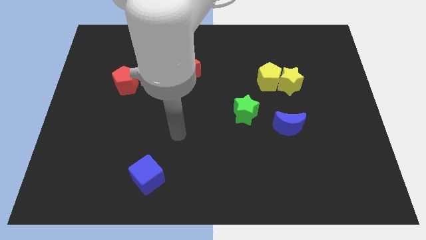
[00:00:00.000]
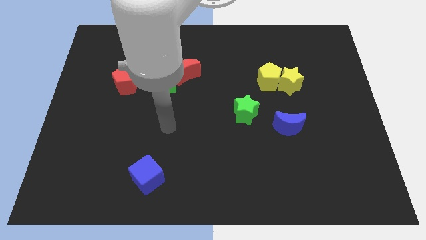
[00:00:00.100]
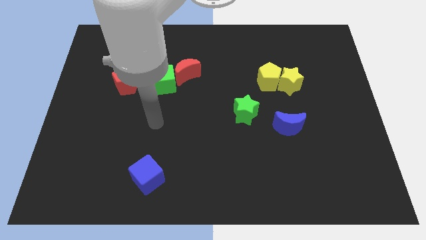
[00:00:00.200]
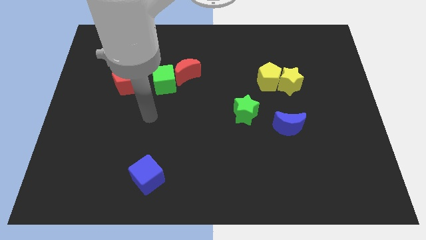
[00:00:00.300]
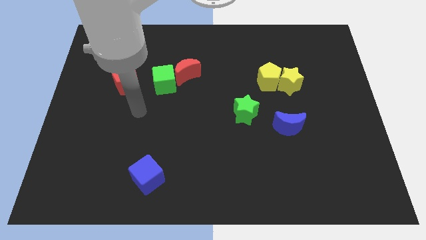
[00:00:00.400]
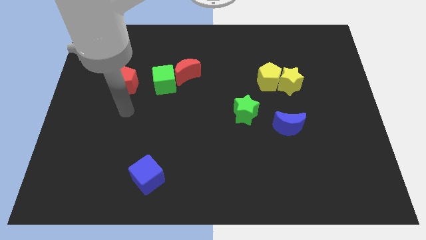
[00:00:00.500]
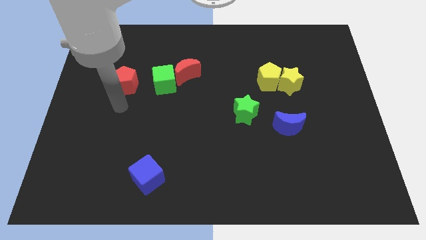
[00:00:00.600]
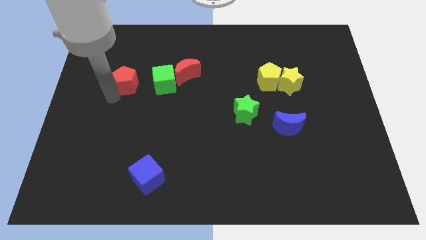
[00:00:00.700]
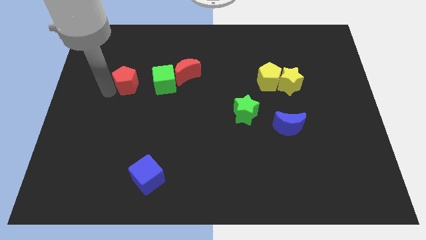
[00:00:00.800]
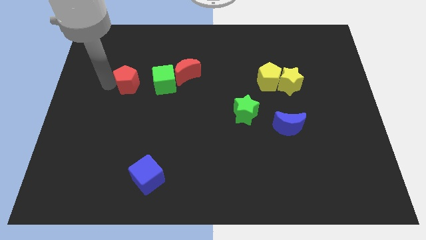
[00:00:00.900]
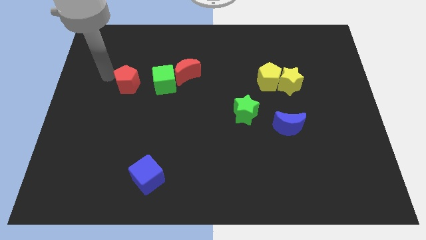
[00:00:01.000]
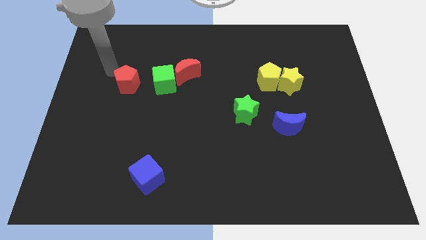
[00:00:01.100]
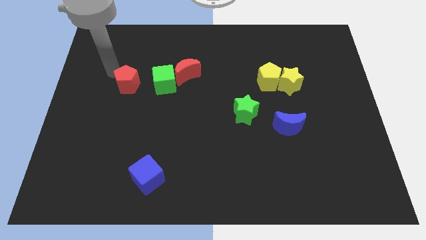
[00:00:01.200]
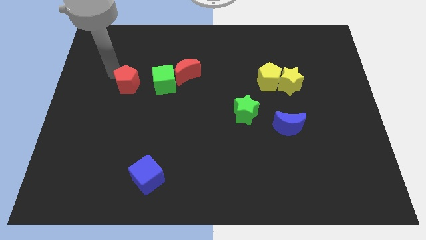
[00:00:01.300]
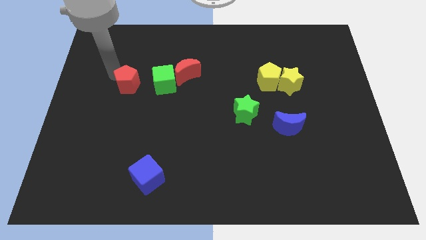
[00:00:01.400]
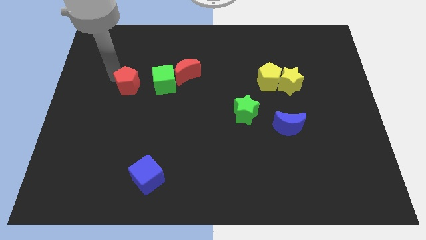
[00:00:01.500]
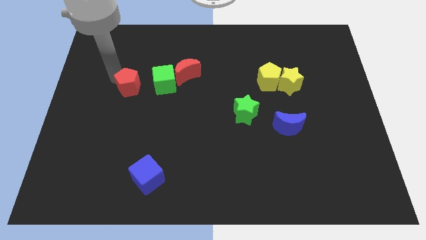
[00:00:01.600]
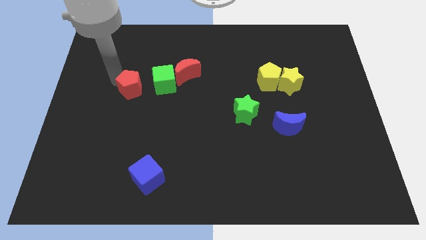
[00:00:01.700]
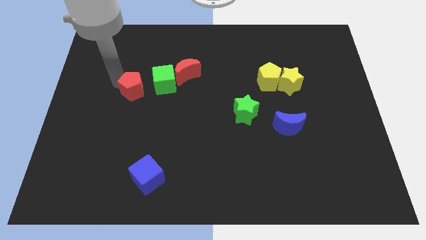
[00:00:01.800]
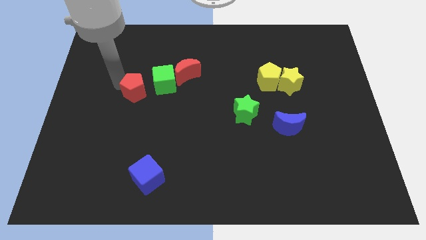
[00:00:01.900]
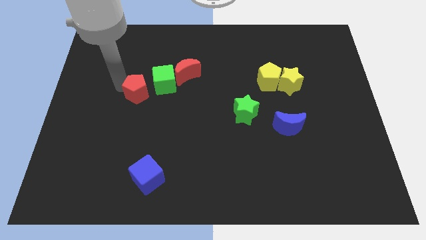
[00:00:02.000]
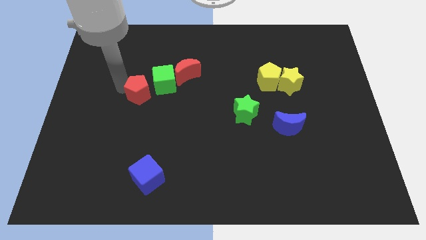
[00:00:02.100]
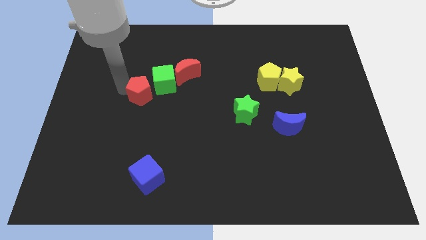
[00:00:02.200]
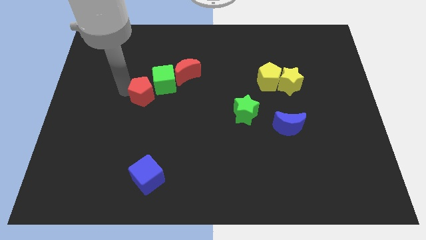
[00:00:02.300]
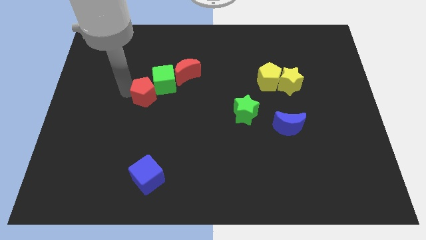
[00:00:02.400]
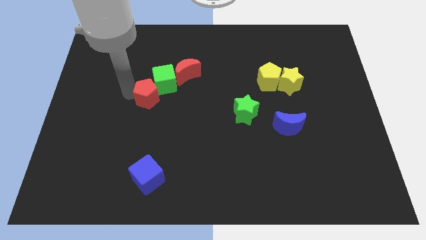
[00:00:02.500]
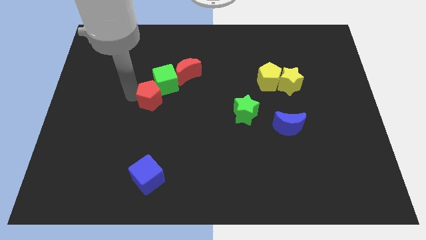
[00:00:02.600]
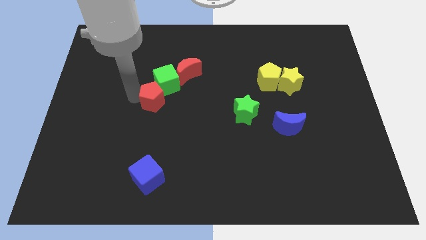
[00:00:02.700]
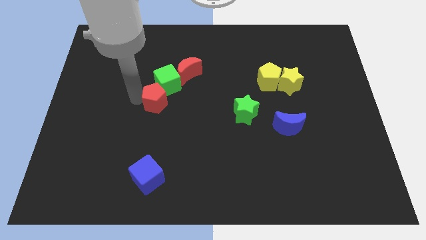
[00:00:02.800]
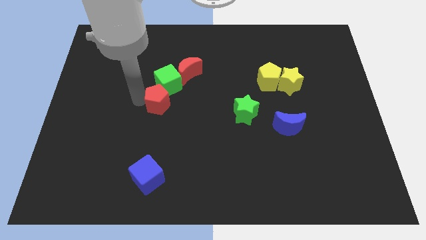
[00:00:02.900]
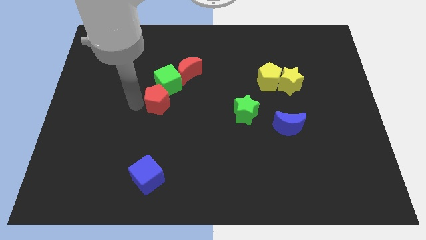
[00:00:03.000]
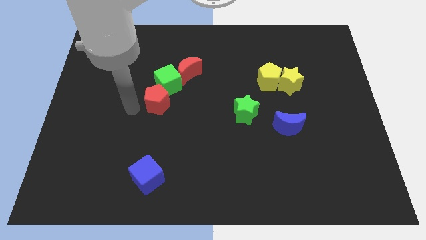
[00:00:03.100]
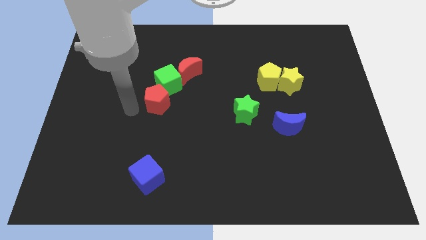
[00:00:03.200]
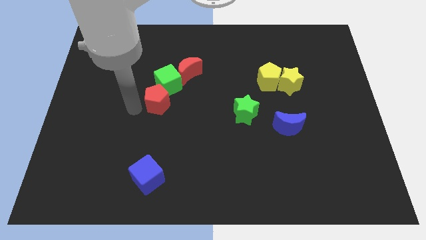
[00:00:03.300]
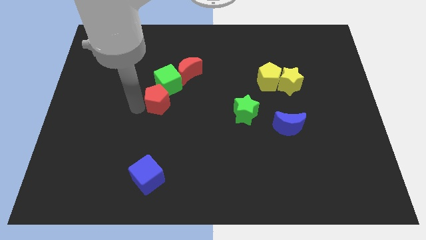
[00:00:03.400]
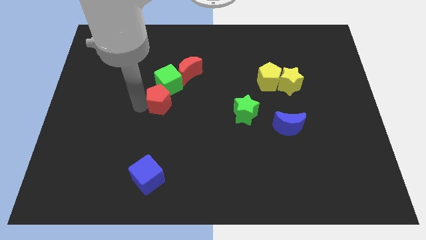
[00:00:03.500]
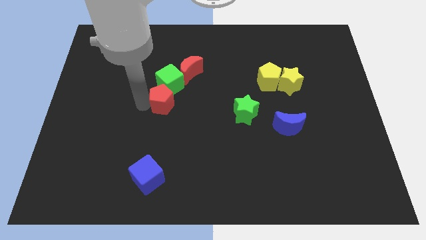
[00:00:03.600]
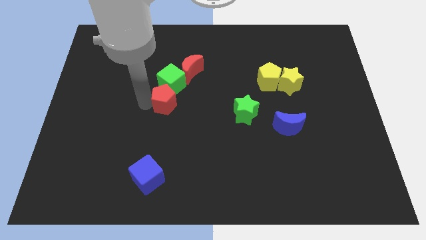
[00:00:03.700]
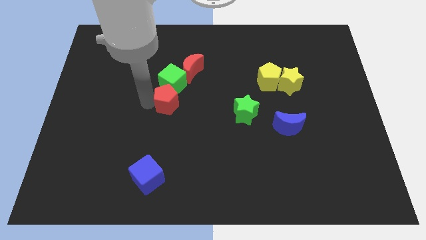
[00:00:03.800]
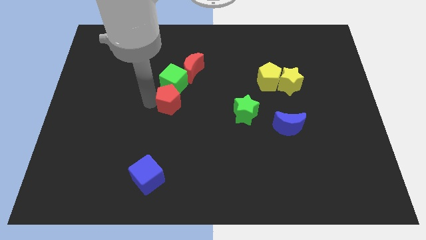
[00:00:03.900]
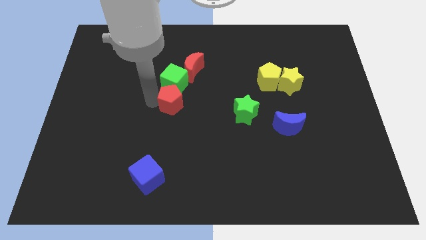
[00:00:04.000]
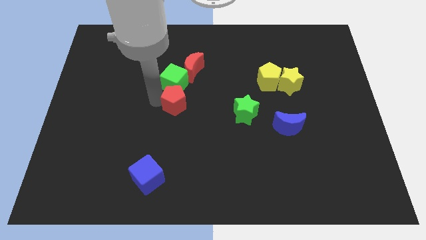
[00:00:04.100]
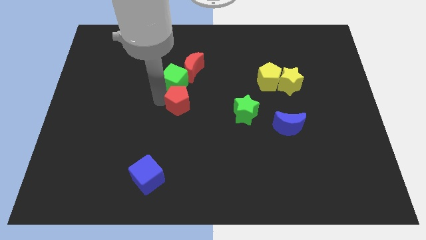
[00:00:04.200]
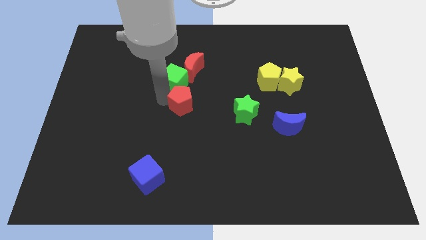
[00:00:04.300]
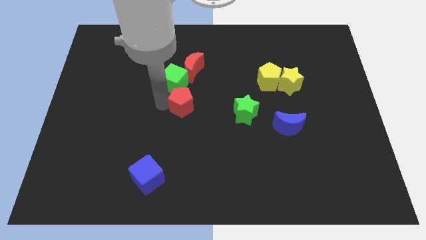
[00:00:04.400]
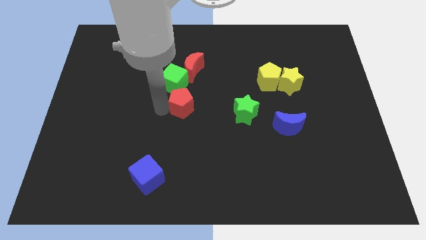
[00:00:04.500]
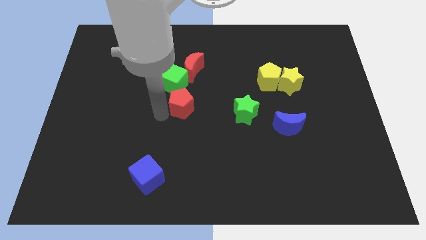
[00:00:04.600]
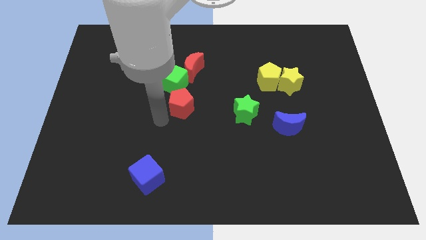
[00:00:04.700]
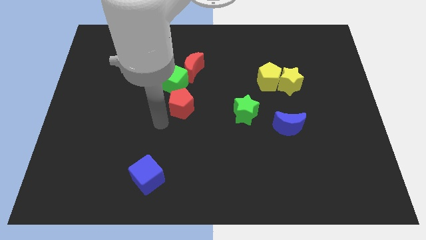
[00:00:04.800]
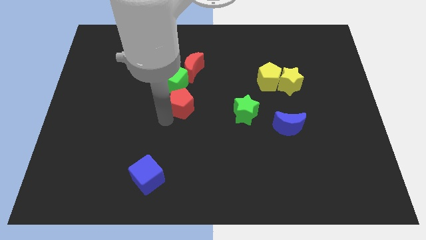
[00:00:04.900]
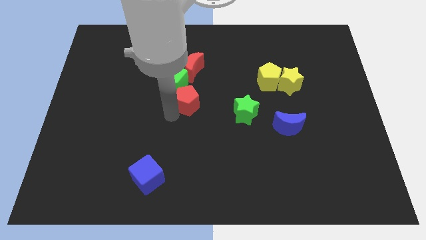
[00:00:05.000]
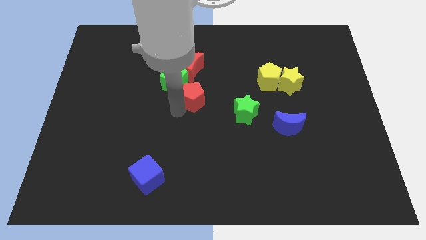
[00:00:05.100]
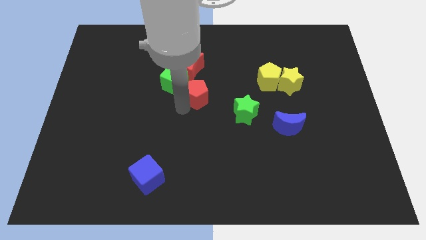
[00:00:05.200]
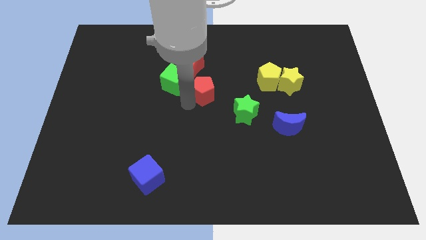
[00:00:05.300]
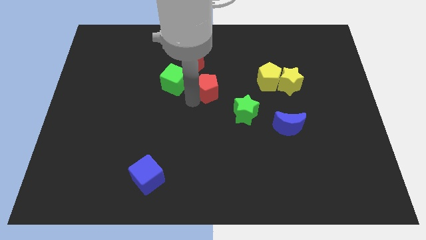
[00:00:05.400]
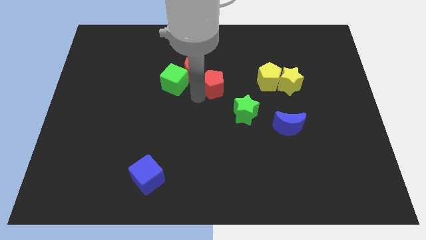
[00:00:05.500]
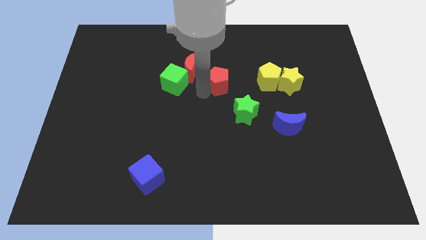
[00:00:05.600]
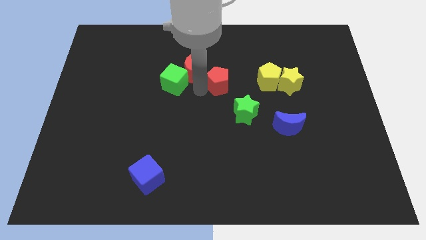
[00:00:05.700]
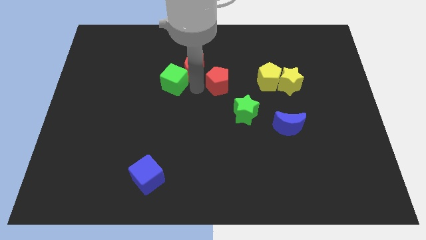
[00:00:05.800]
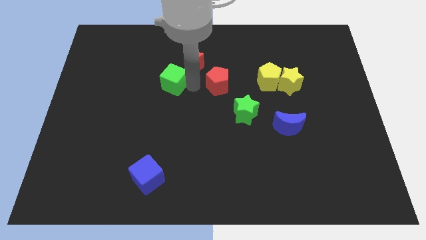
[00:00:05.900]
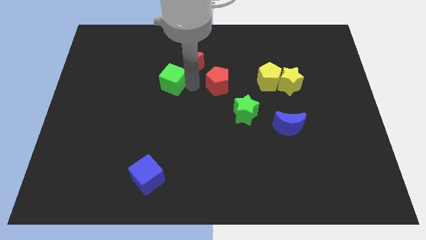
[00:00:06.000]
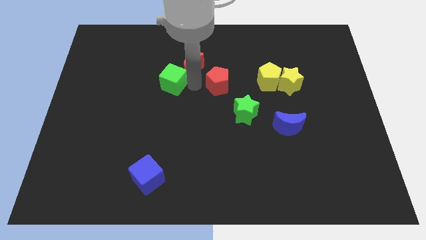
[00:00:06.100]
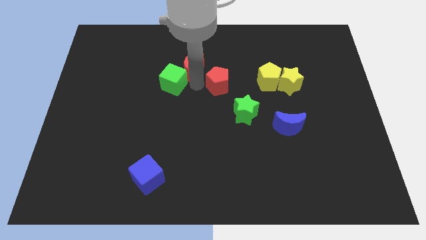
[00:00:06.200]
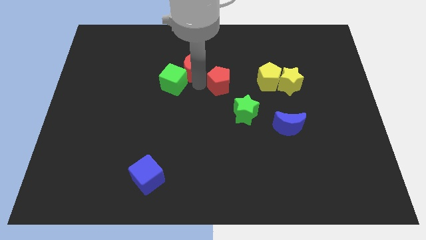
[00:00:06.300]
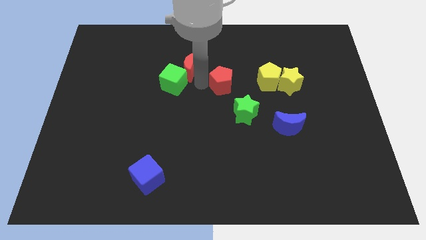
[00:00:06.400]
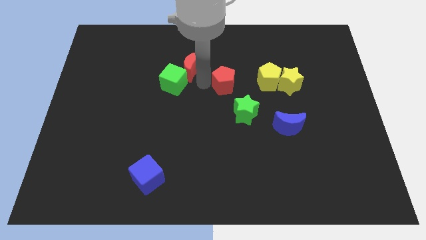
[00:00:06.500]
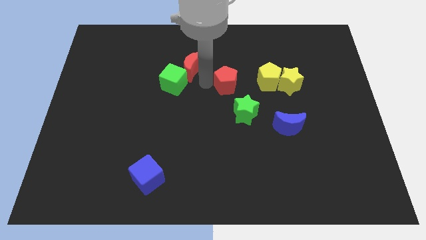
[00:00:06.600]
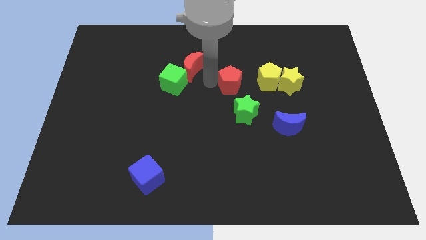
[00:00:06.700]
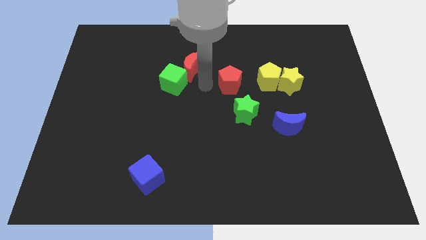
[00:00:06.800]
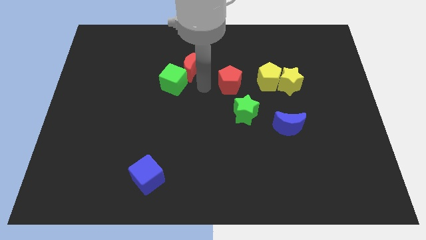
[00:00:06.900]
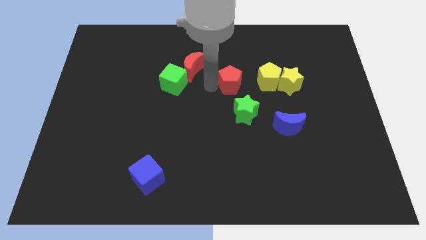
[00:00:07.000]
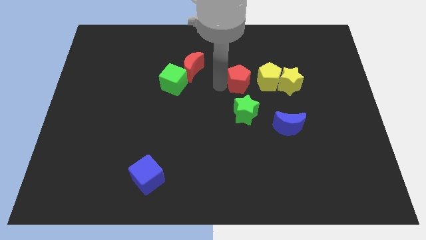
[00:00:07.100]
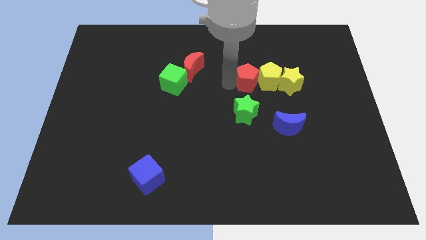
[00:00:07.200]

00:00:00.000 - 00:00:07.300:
push the red pentagon next to the yellow pentagon

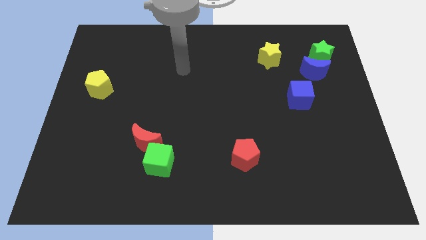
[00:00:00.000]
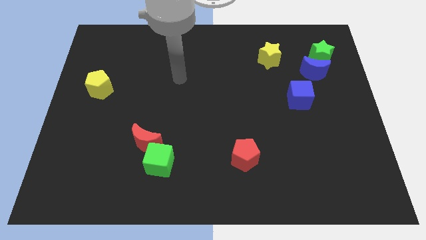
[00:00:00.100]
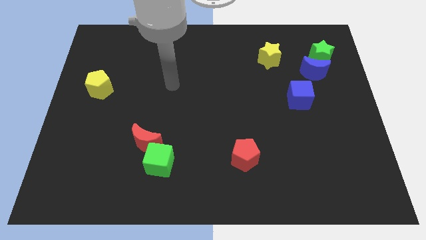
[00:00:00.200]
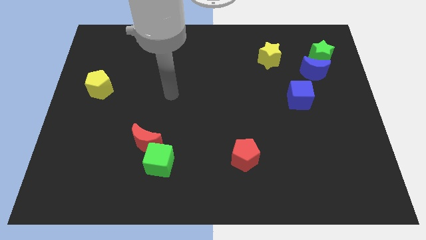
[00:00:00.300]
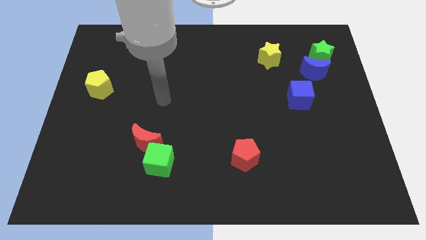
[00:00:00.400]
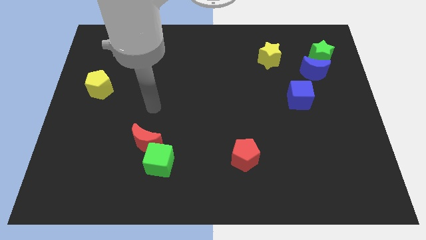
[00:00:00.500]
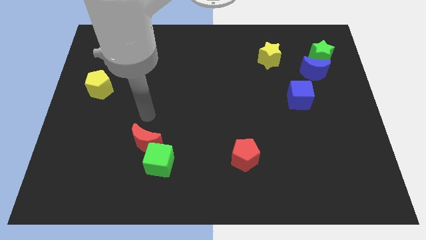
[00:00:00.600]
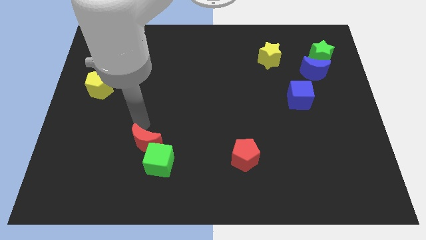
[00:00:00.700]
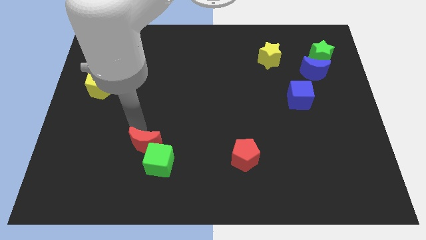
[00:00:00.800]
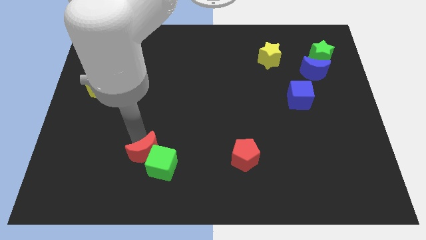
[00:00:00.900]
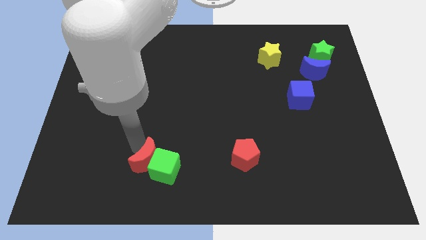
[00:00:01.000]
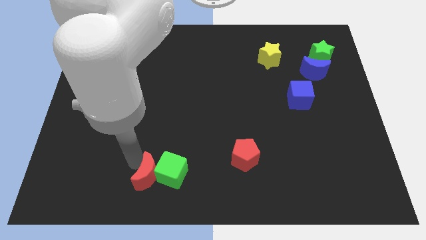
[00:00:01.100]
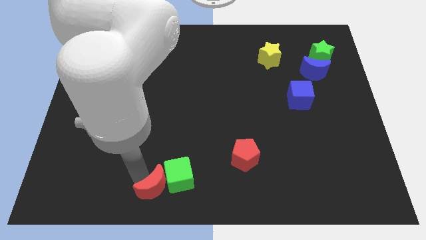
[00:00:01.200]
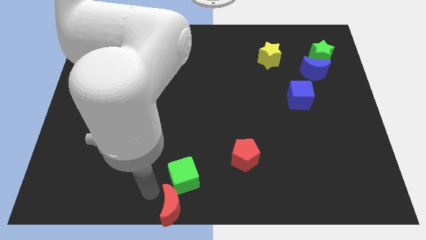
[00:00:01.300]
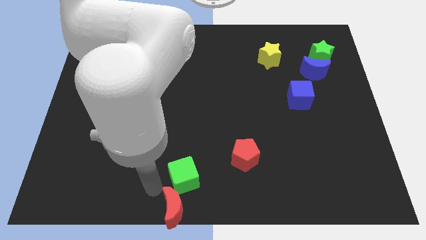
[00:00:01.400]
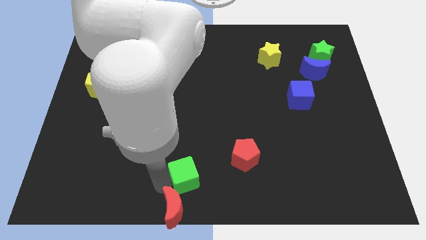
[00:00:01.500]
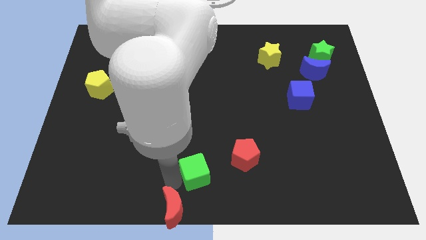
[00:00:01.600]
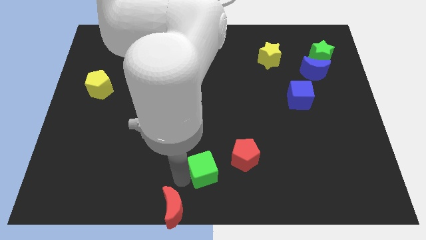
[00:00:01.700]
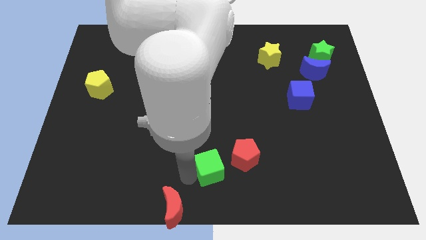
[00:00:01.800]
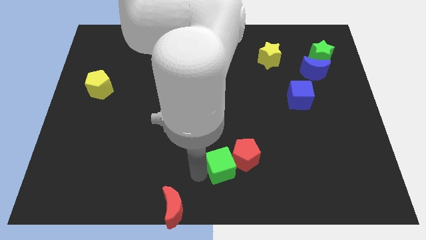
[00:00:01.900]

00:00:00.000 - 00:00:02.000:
move the green cube towards the red pentagon
